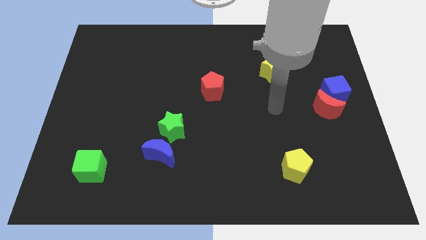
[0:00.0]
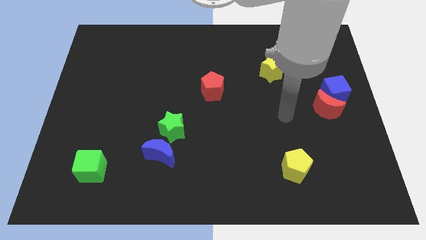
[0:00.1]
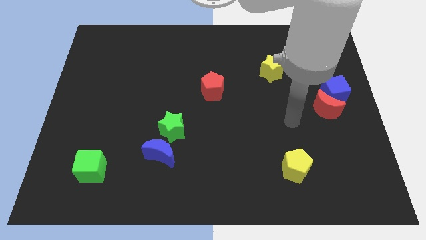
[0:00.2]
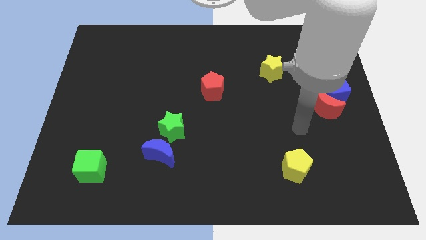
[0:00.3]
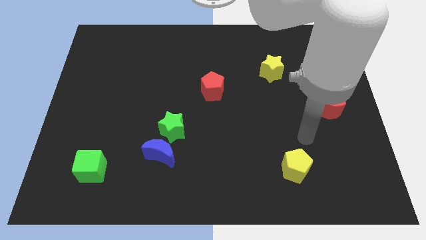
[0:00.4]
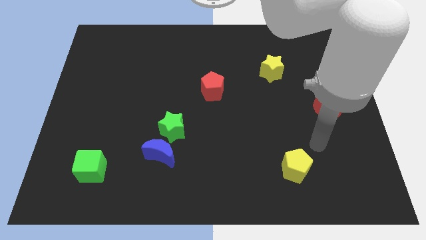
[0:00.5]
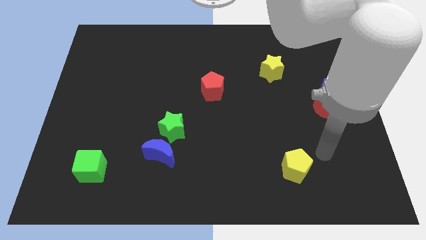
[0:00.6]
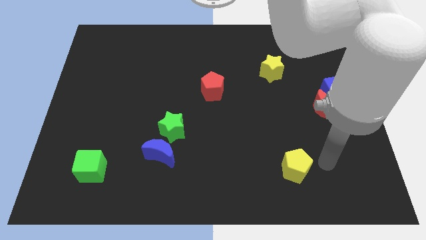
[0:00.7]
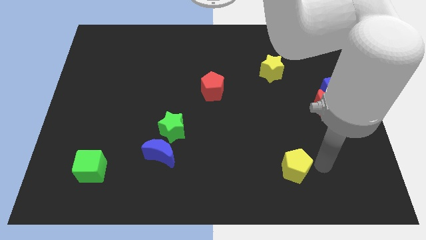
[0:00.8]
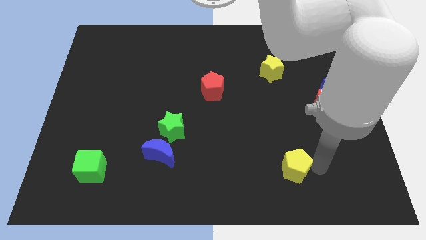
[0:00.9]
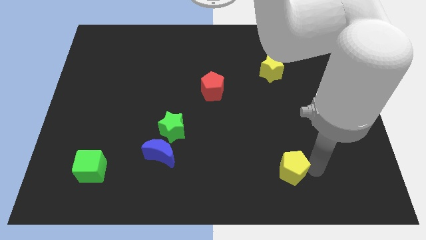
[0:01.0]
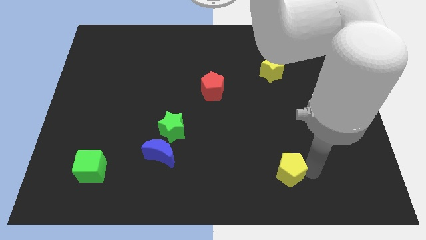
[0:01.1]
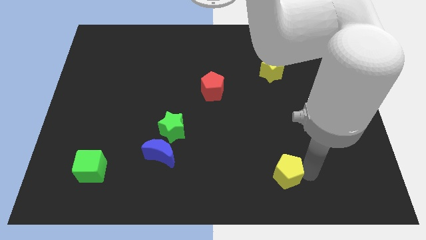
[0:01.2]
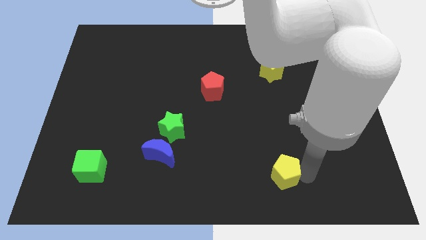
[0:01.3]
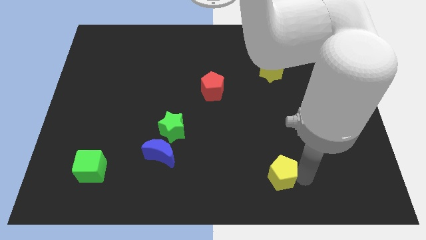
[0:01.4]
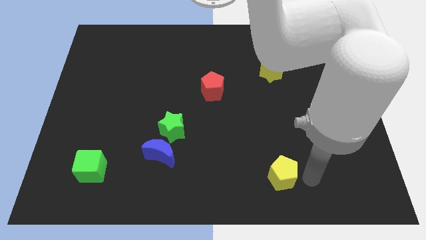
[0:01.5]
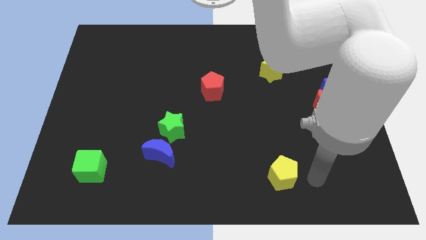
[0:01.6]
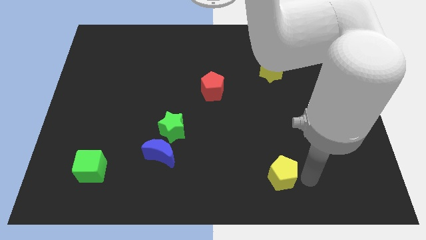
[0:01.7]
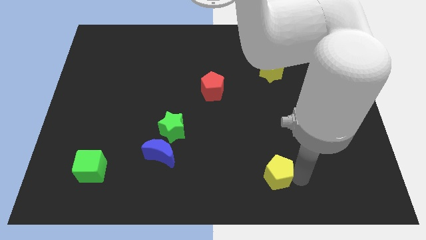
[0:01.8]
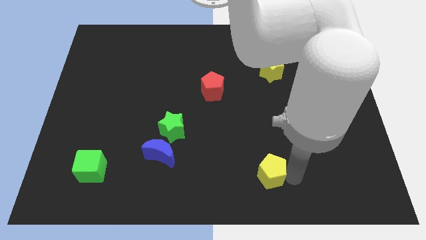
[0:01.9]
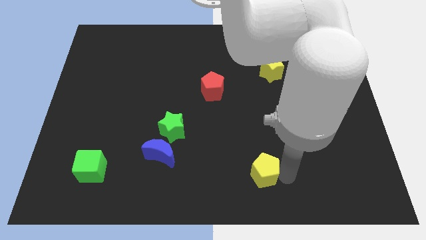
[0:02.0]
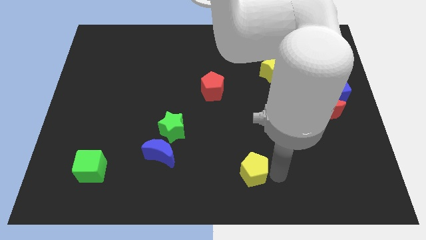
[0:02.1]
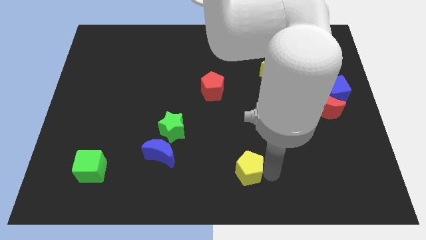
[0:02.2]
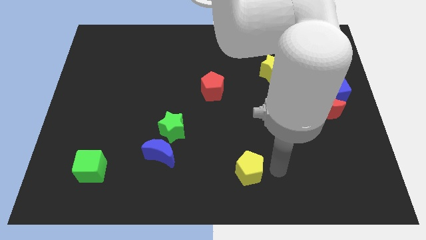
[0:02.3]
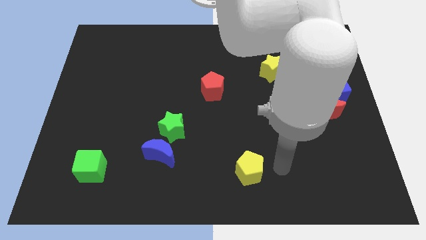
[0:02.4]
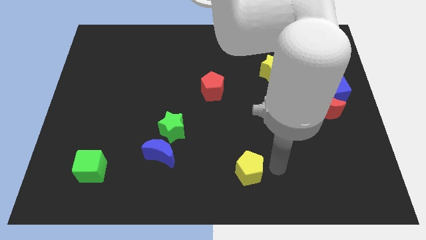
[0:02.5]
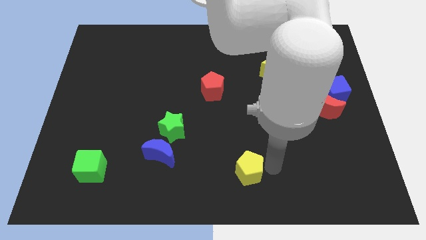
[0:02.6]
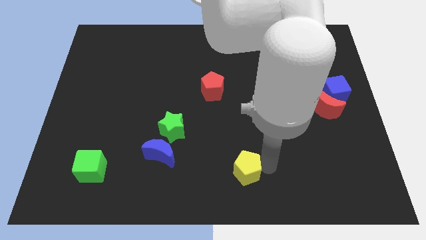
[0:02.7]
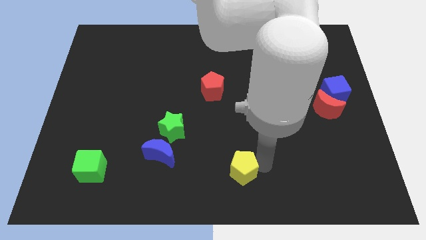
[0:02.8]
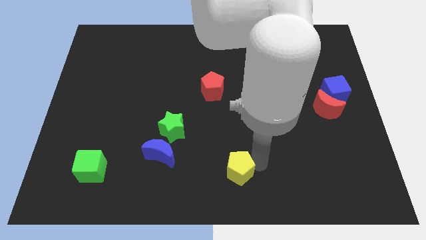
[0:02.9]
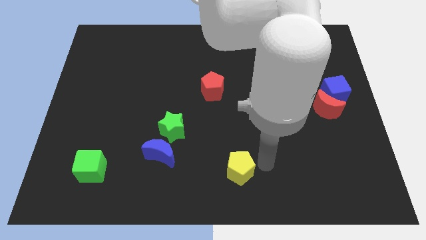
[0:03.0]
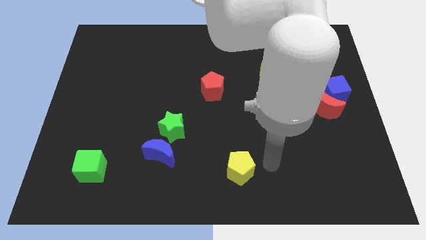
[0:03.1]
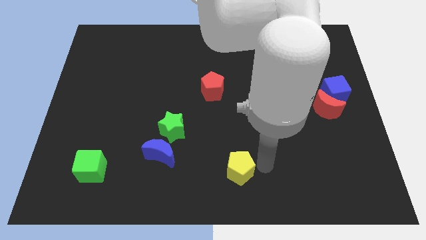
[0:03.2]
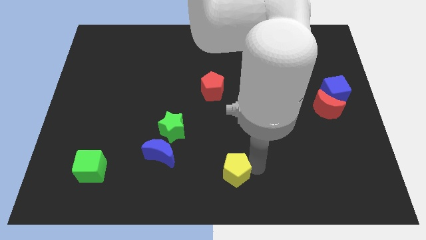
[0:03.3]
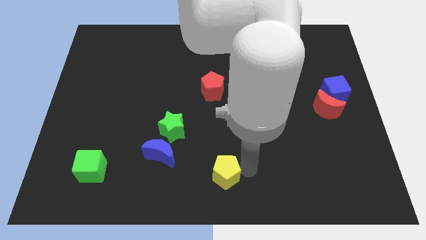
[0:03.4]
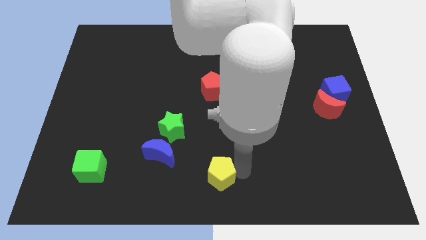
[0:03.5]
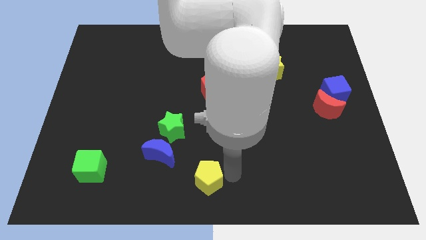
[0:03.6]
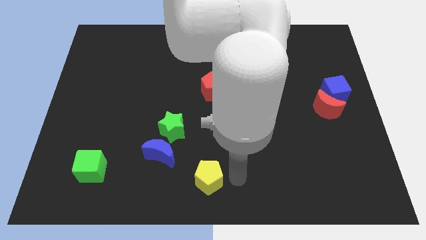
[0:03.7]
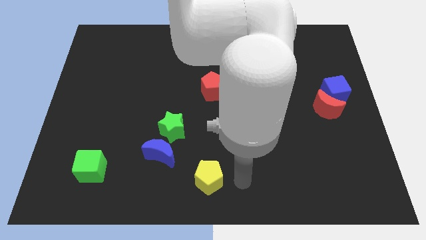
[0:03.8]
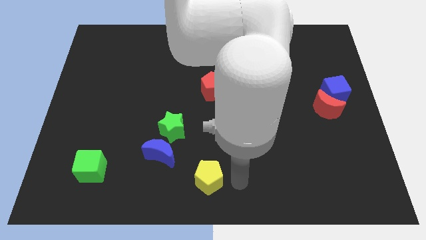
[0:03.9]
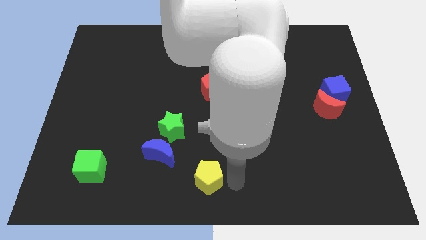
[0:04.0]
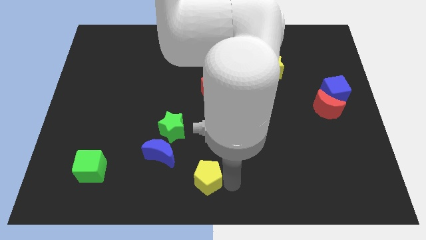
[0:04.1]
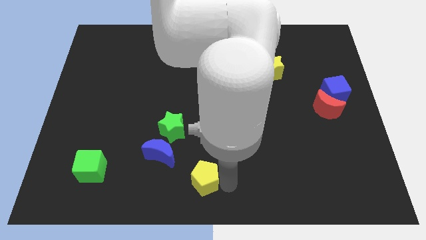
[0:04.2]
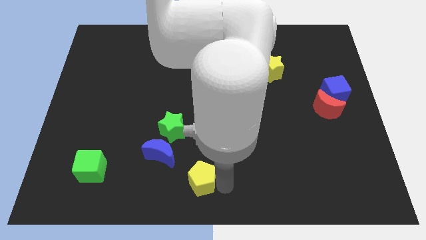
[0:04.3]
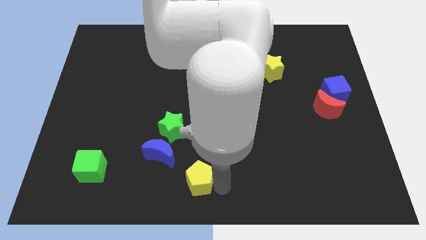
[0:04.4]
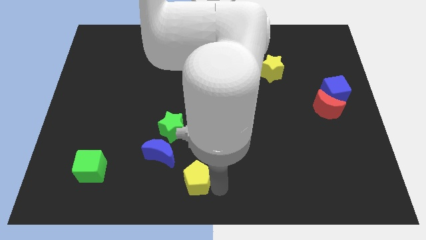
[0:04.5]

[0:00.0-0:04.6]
slide the yellow pentagon to the left

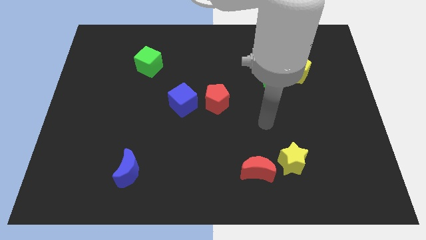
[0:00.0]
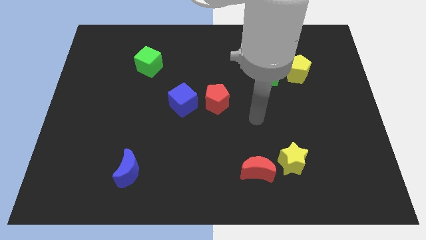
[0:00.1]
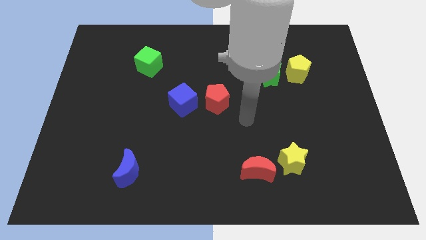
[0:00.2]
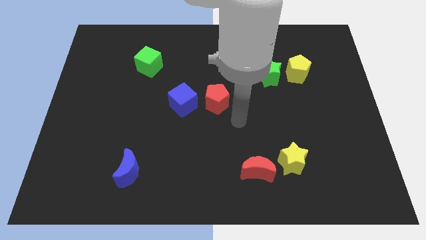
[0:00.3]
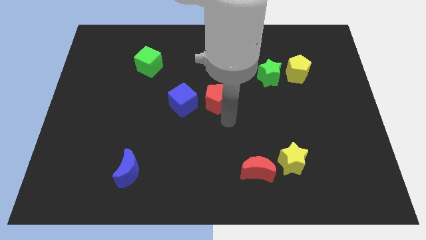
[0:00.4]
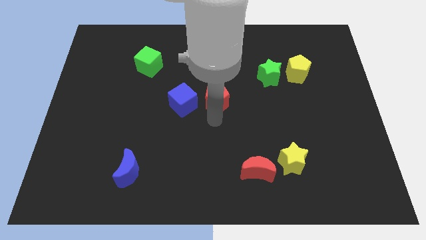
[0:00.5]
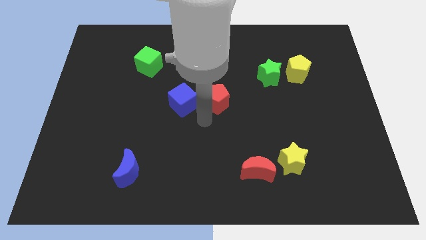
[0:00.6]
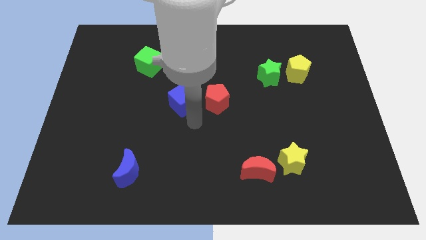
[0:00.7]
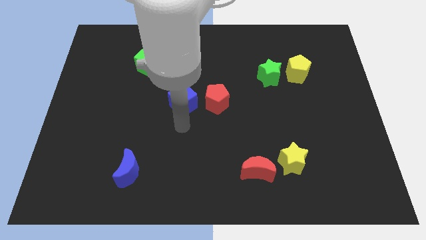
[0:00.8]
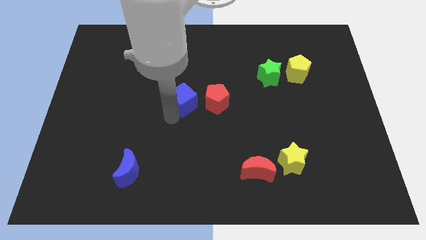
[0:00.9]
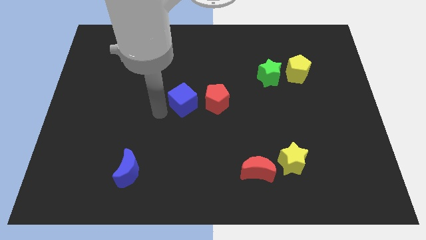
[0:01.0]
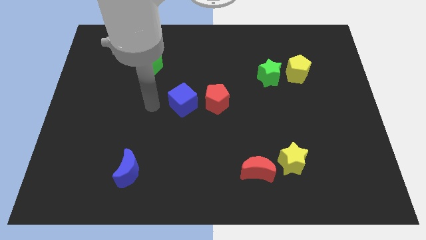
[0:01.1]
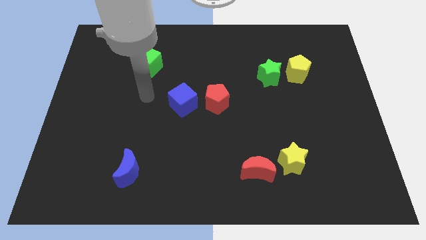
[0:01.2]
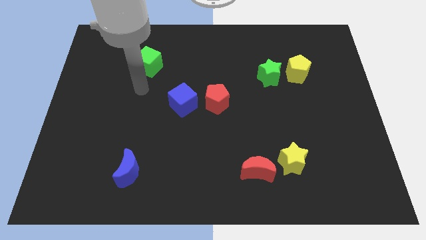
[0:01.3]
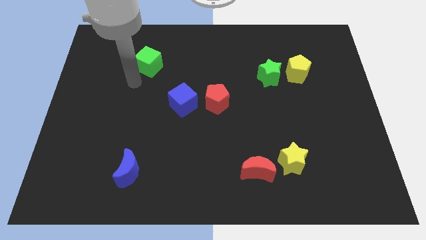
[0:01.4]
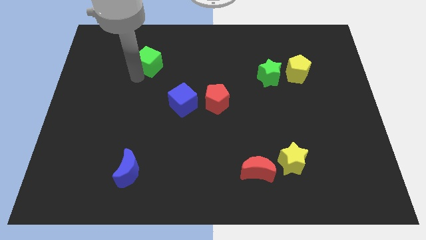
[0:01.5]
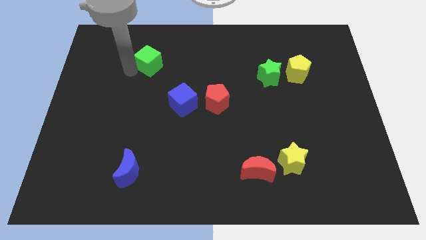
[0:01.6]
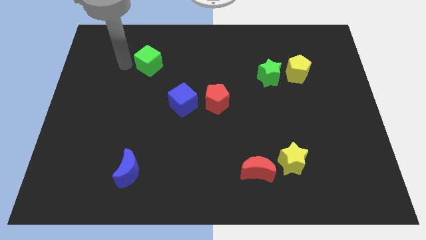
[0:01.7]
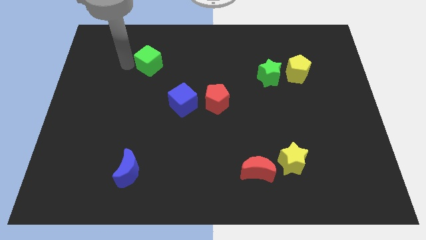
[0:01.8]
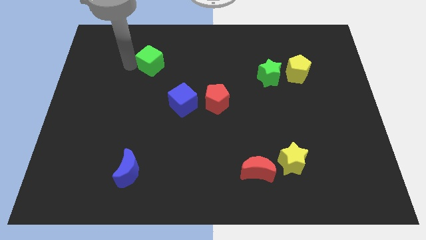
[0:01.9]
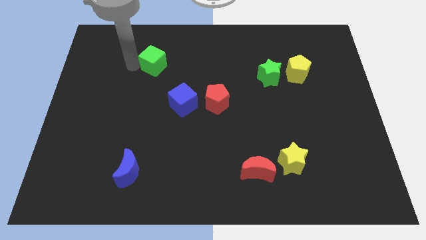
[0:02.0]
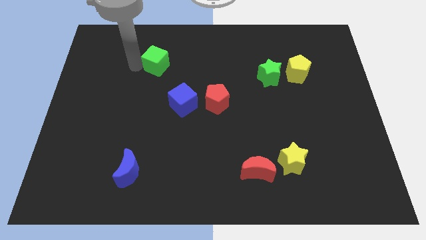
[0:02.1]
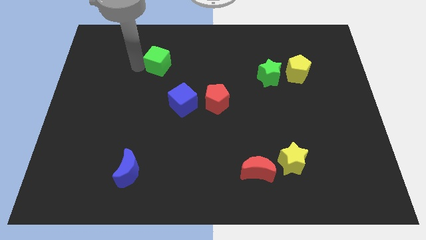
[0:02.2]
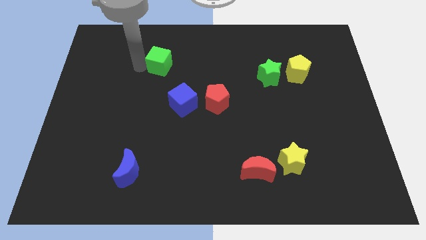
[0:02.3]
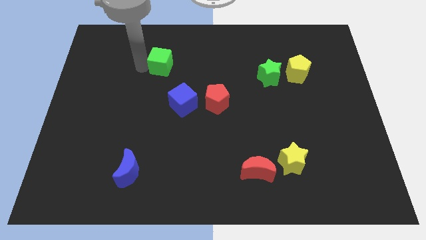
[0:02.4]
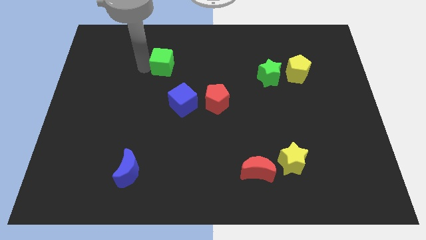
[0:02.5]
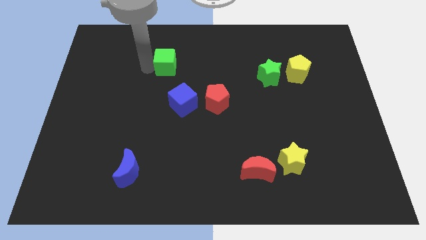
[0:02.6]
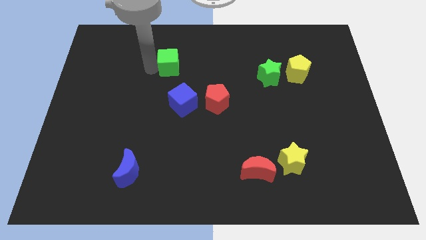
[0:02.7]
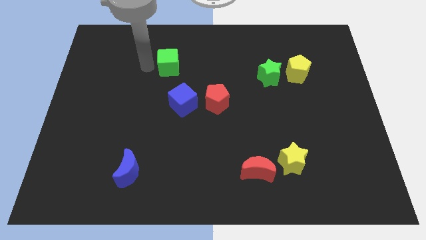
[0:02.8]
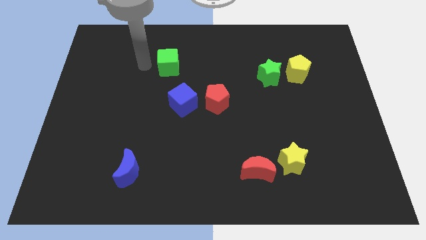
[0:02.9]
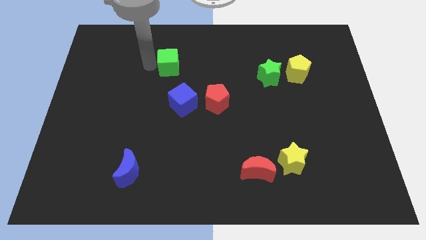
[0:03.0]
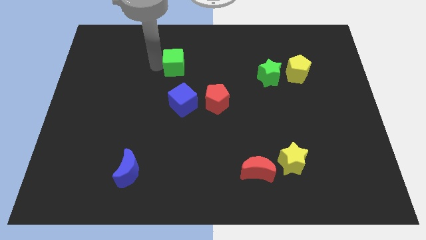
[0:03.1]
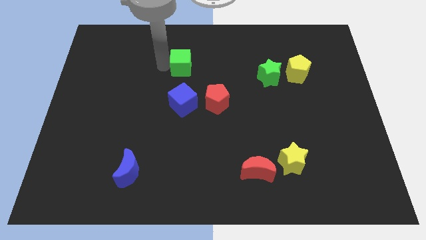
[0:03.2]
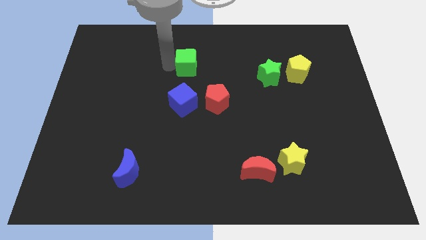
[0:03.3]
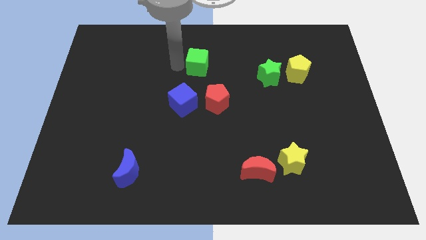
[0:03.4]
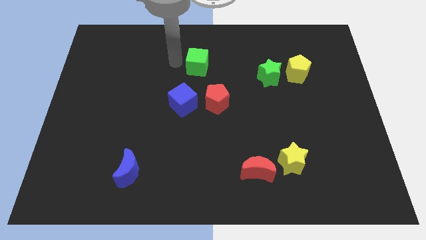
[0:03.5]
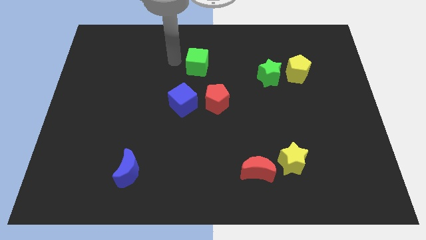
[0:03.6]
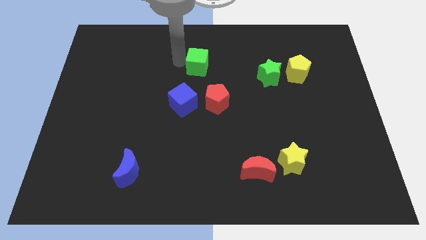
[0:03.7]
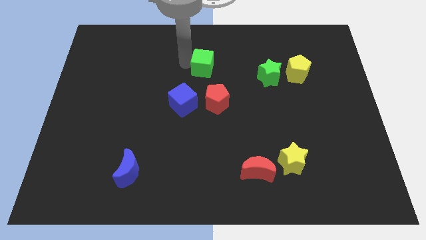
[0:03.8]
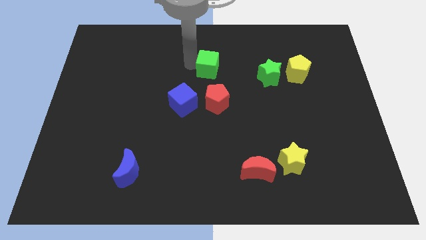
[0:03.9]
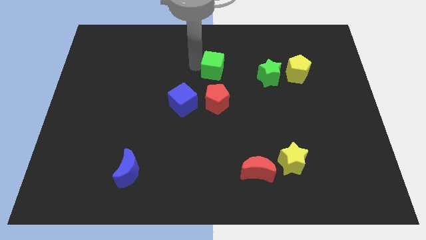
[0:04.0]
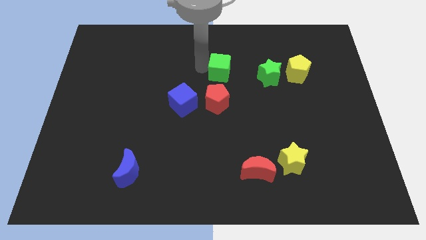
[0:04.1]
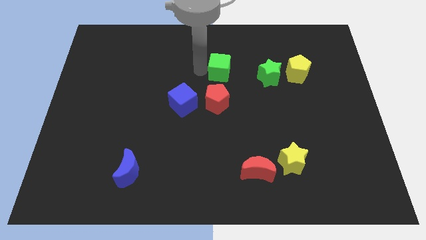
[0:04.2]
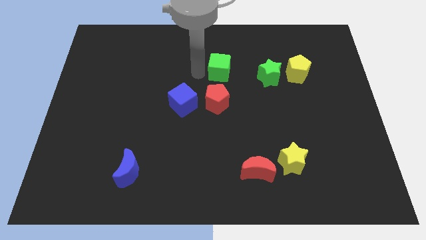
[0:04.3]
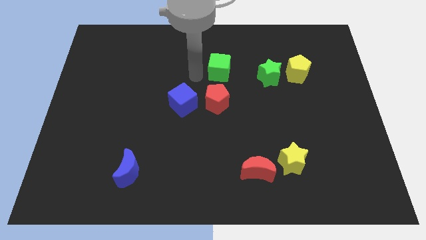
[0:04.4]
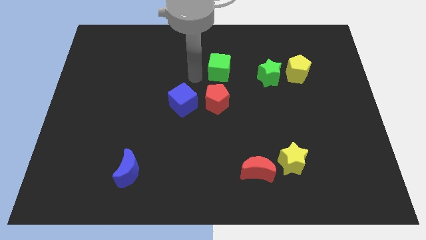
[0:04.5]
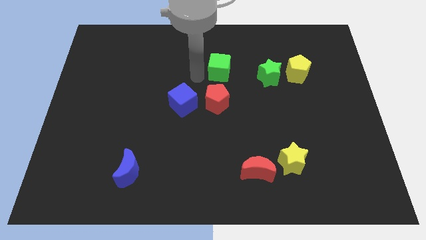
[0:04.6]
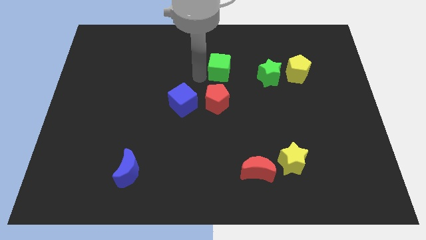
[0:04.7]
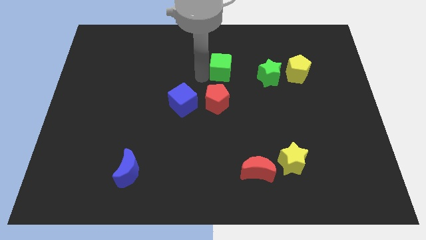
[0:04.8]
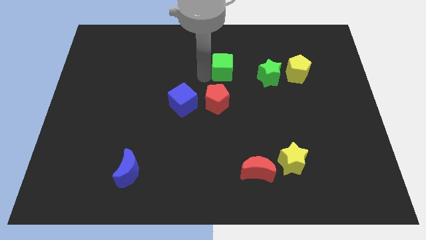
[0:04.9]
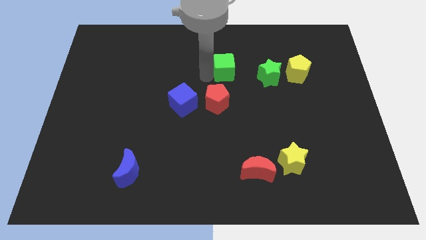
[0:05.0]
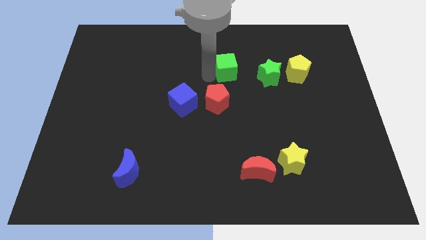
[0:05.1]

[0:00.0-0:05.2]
slide the green cube to the right
